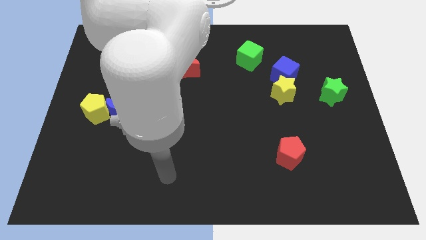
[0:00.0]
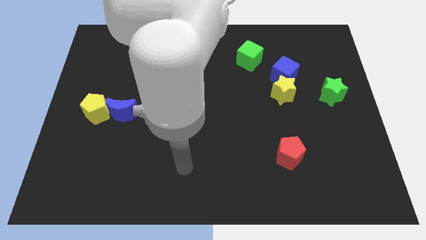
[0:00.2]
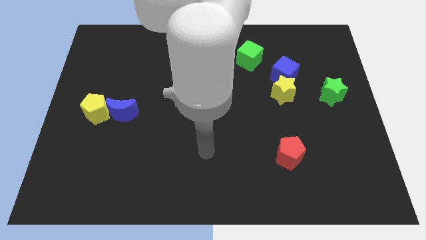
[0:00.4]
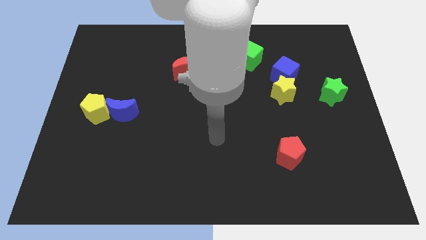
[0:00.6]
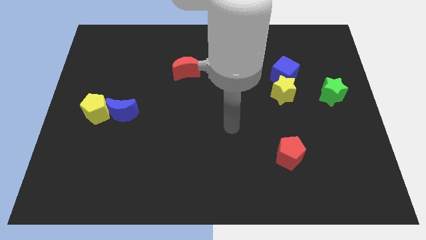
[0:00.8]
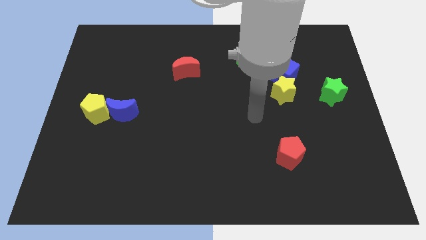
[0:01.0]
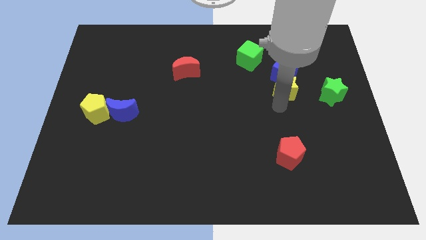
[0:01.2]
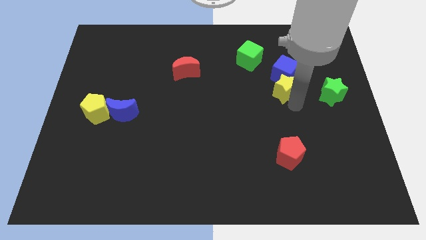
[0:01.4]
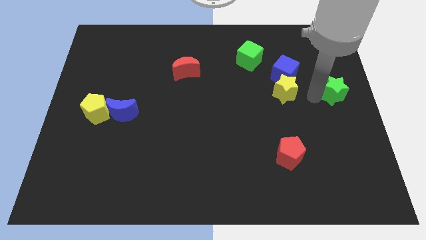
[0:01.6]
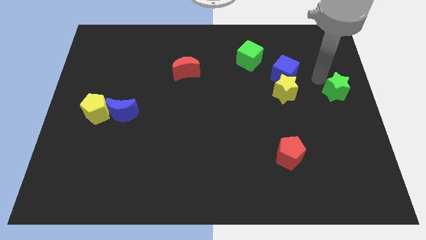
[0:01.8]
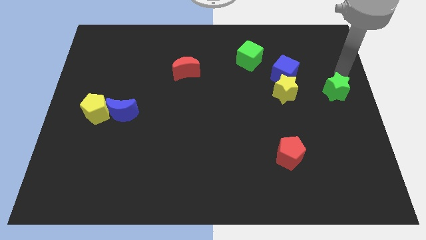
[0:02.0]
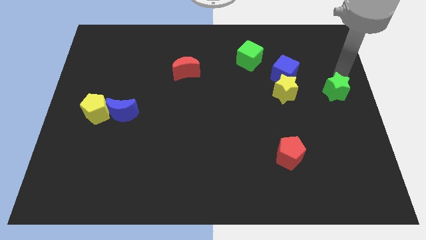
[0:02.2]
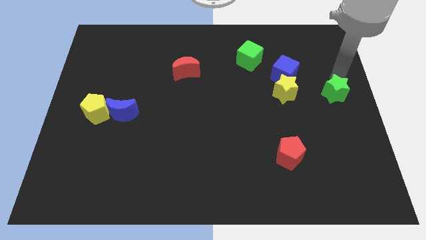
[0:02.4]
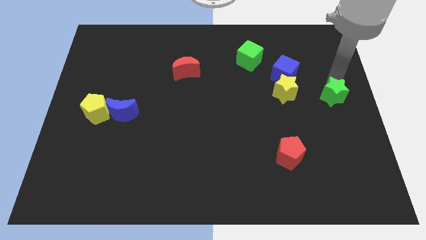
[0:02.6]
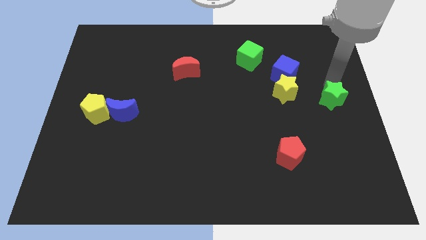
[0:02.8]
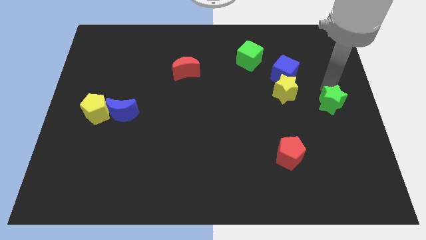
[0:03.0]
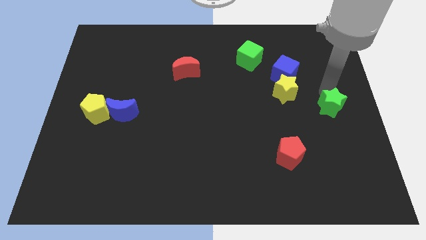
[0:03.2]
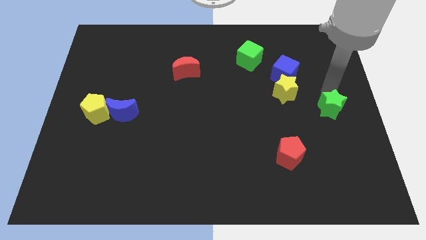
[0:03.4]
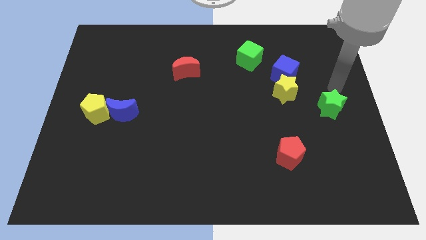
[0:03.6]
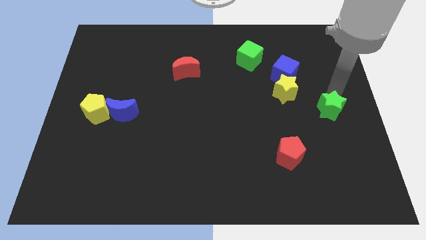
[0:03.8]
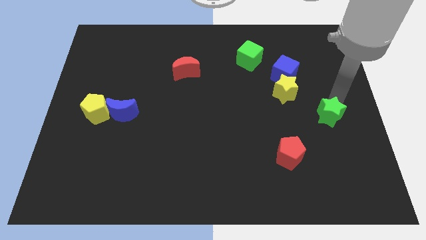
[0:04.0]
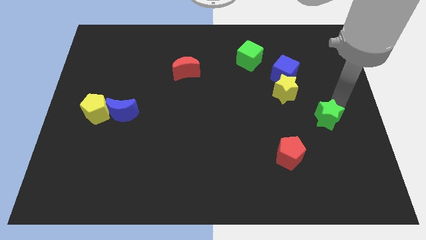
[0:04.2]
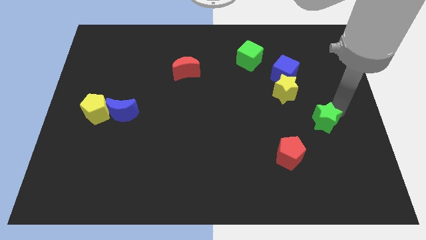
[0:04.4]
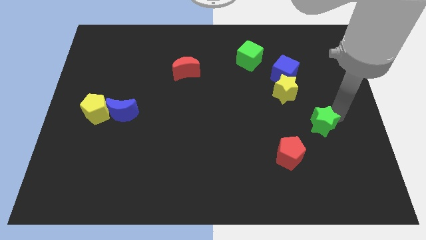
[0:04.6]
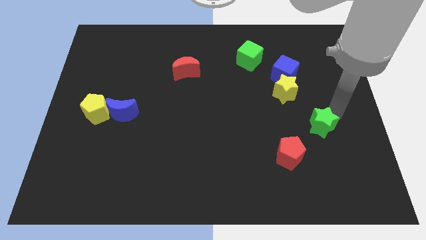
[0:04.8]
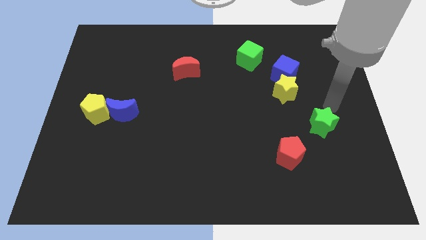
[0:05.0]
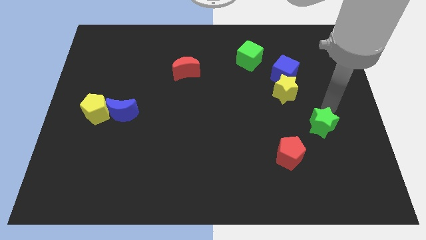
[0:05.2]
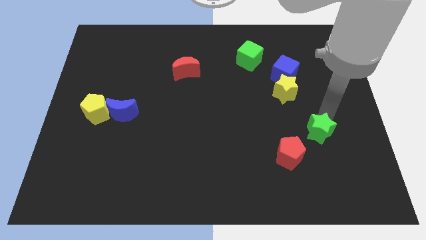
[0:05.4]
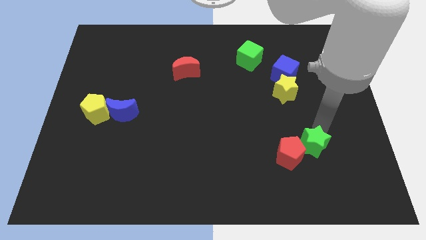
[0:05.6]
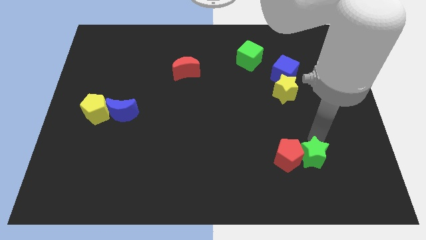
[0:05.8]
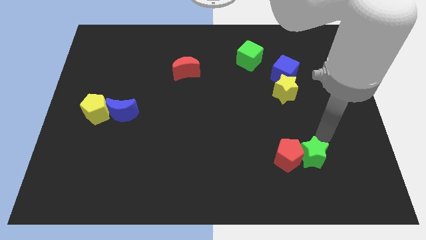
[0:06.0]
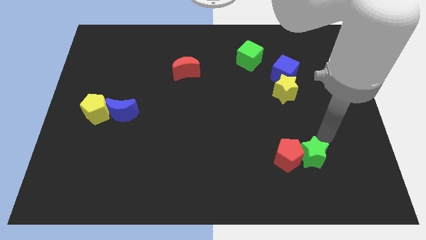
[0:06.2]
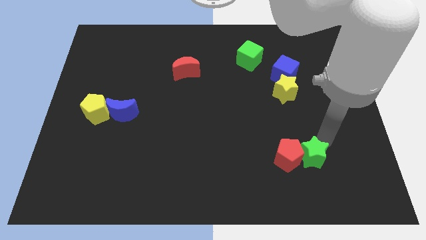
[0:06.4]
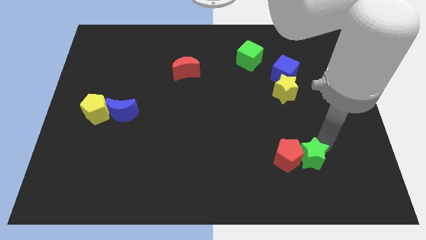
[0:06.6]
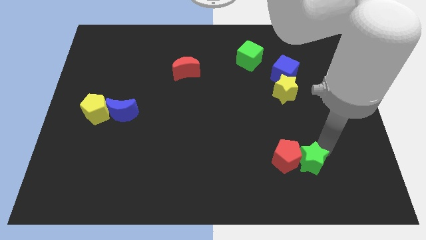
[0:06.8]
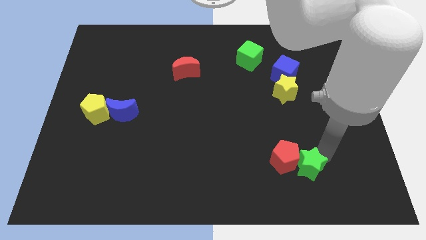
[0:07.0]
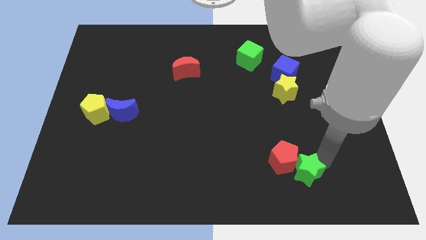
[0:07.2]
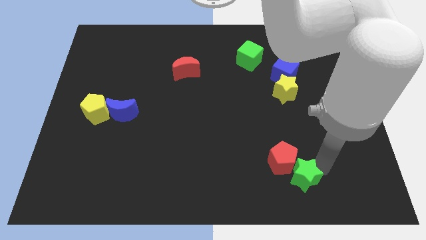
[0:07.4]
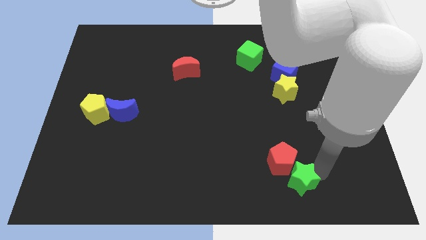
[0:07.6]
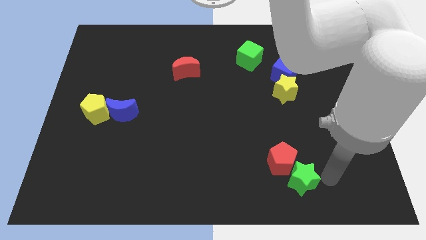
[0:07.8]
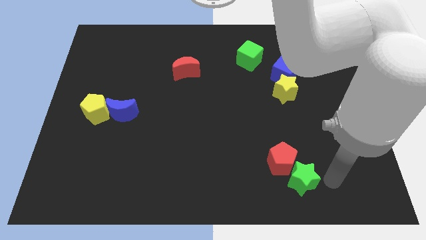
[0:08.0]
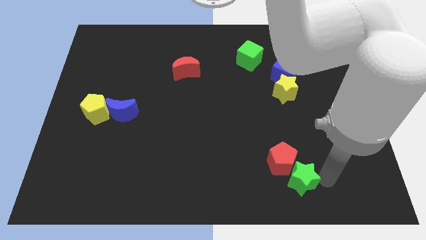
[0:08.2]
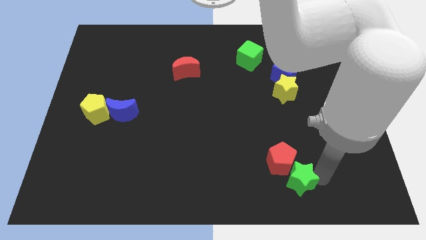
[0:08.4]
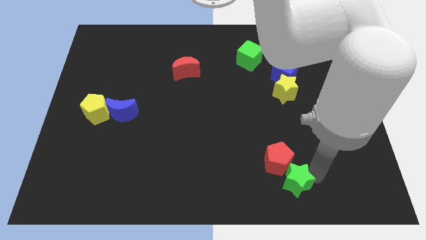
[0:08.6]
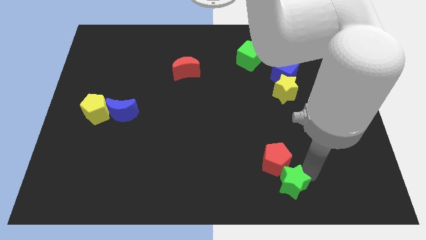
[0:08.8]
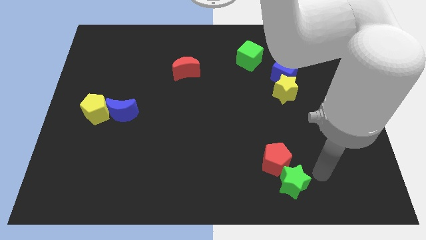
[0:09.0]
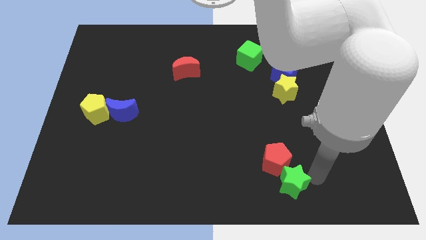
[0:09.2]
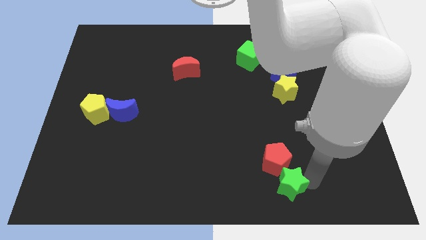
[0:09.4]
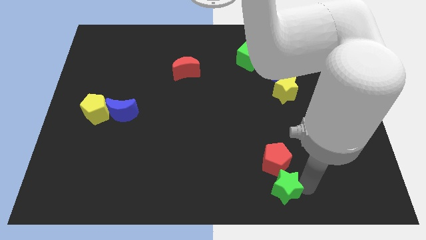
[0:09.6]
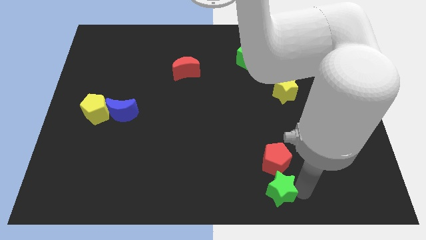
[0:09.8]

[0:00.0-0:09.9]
slide the green star to the bottom

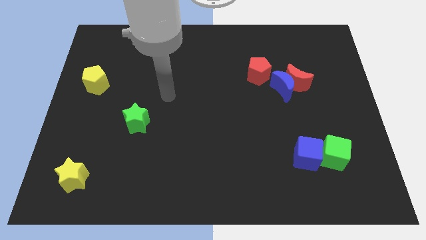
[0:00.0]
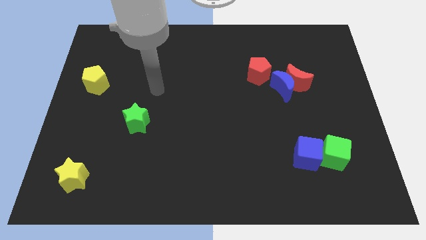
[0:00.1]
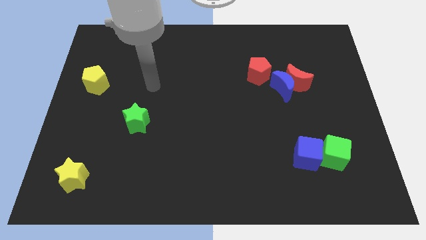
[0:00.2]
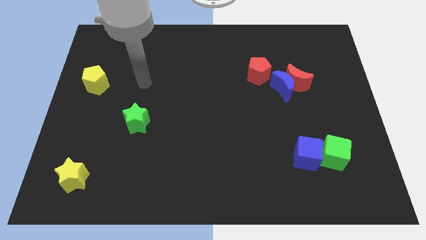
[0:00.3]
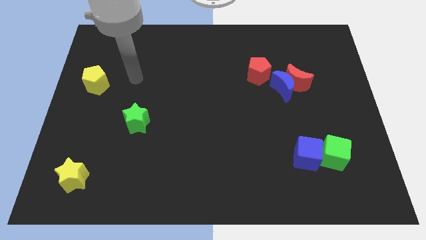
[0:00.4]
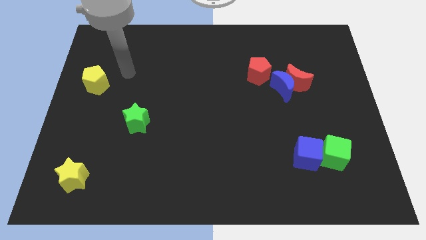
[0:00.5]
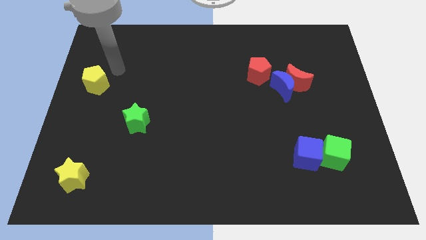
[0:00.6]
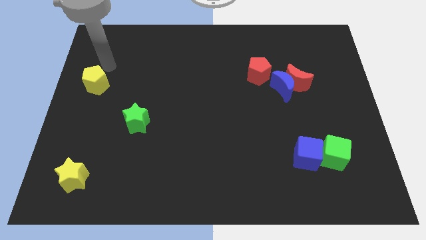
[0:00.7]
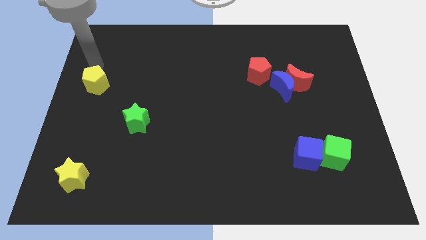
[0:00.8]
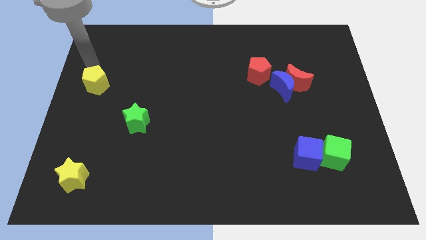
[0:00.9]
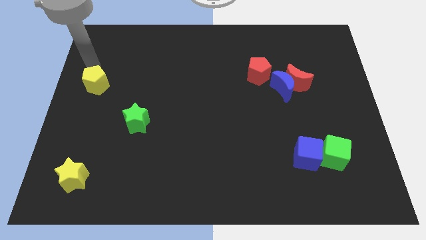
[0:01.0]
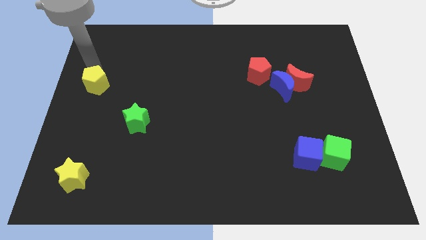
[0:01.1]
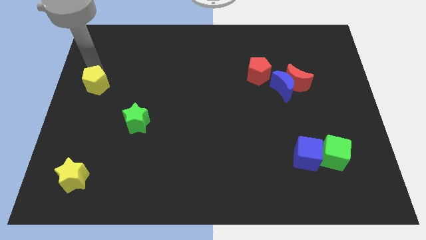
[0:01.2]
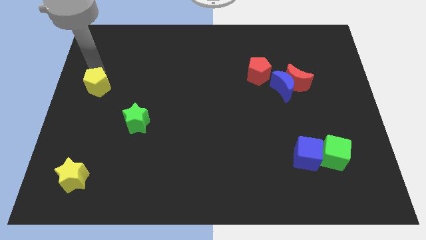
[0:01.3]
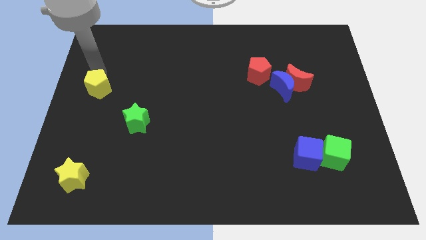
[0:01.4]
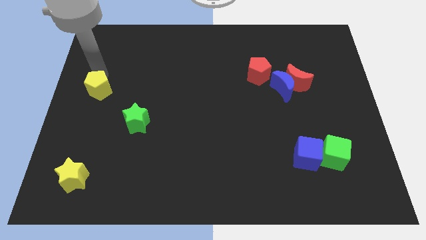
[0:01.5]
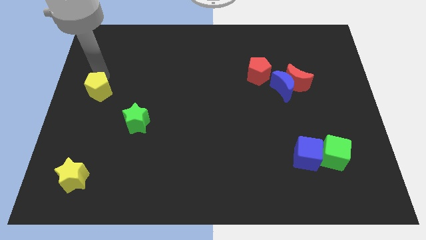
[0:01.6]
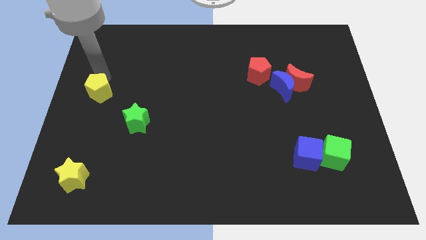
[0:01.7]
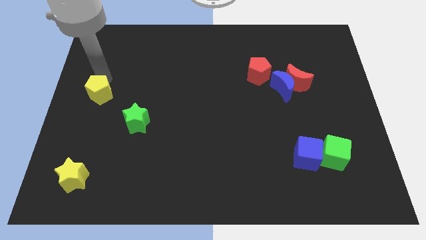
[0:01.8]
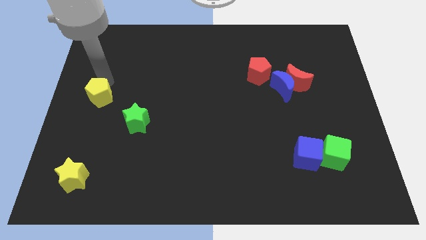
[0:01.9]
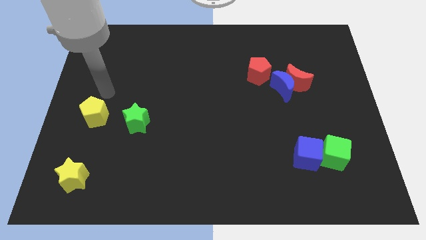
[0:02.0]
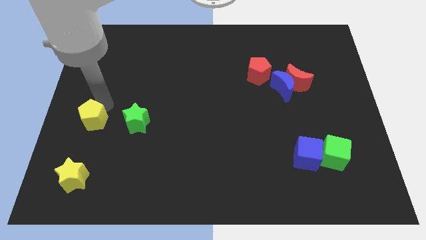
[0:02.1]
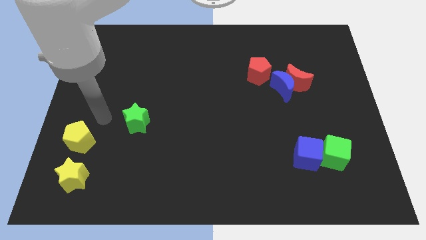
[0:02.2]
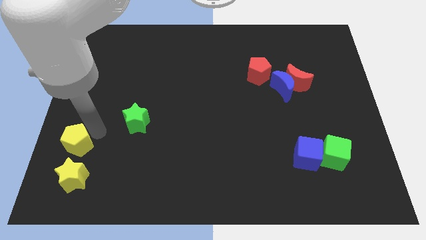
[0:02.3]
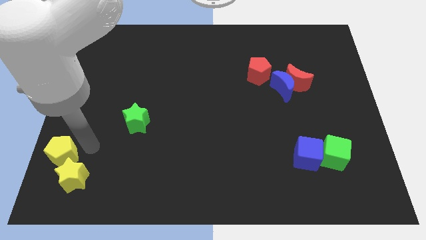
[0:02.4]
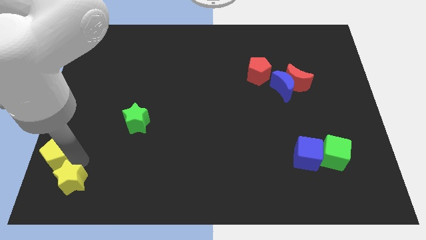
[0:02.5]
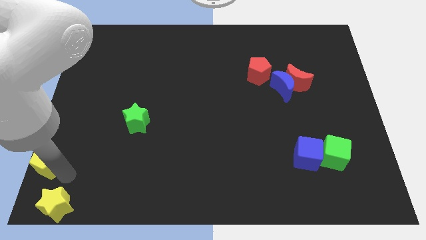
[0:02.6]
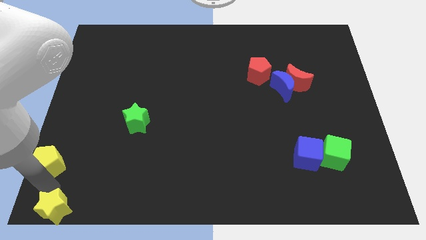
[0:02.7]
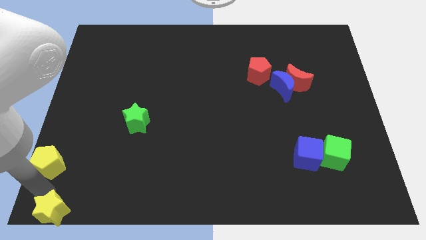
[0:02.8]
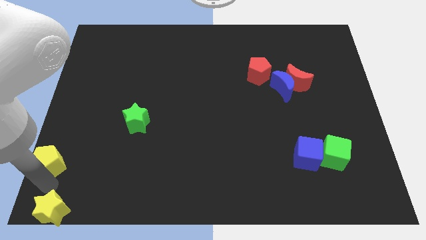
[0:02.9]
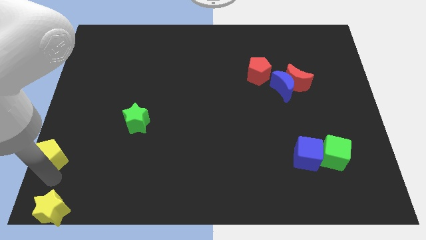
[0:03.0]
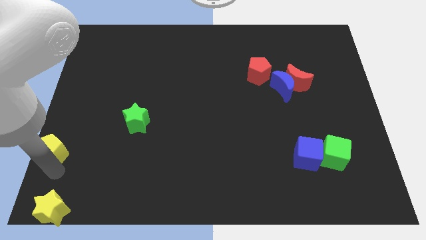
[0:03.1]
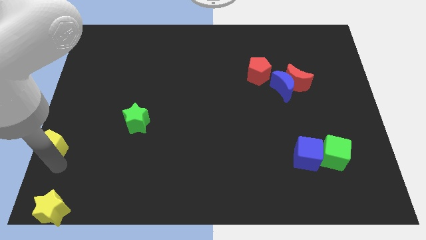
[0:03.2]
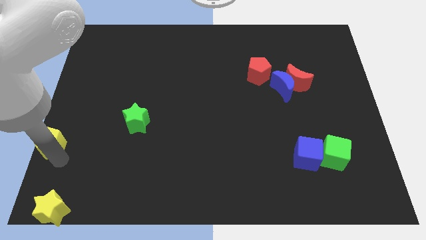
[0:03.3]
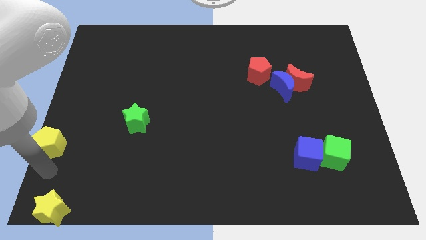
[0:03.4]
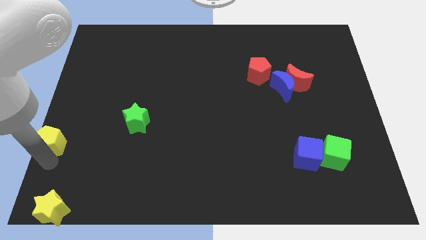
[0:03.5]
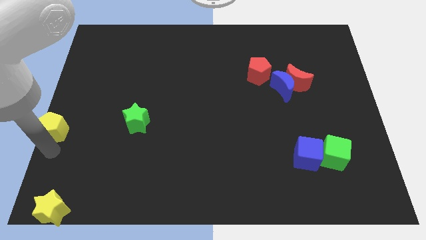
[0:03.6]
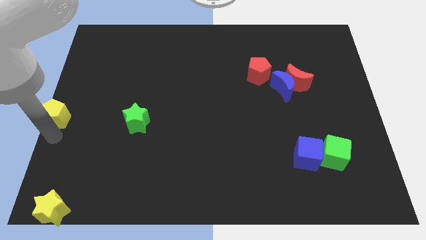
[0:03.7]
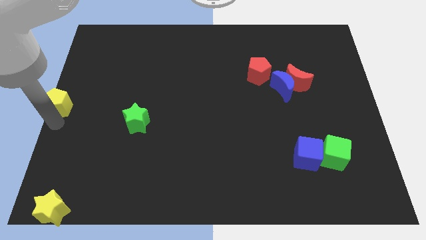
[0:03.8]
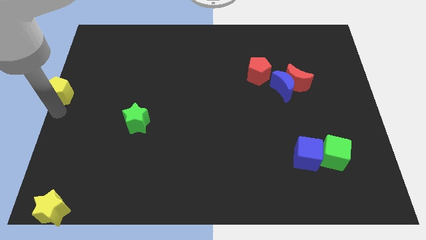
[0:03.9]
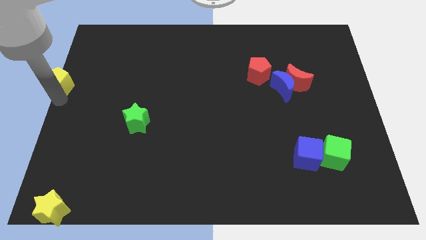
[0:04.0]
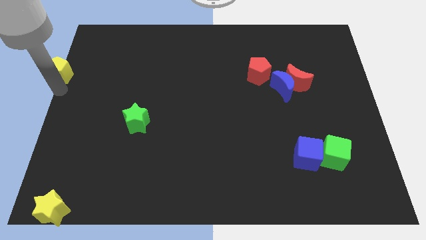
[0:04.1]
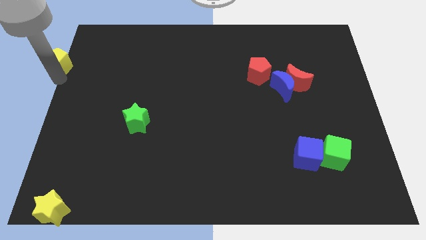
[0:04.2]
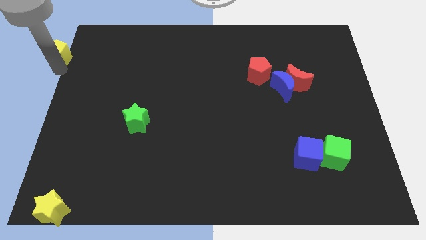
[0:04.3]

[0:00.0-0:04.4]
slide the yellow pentagon to the top left
